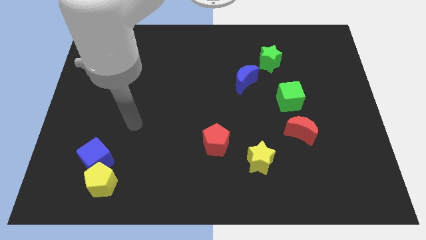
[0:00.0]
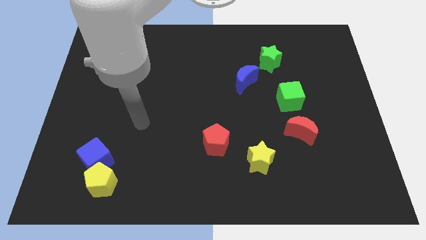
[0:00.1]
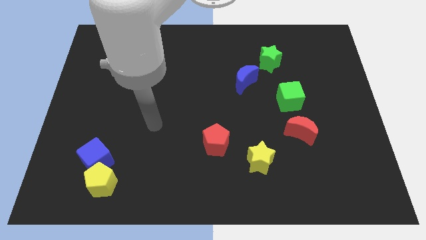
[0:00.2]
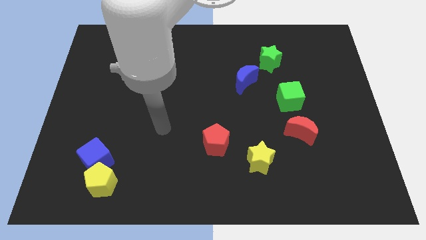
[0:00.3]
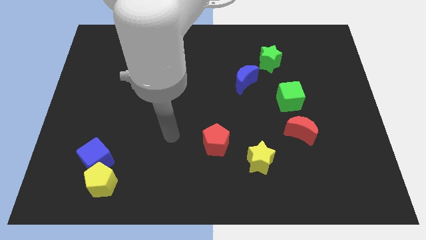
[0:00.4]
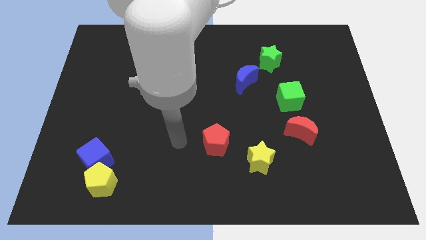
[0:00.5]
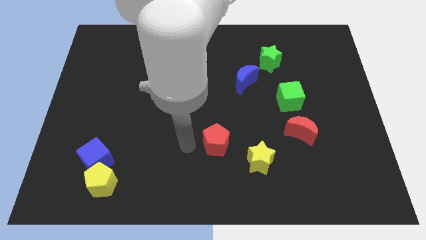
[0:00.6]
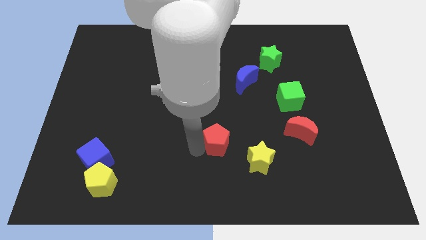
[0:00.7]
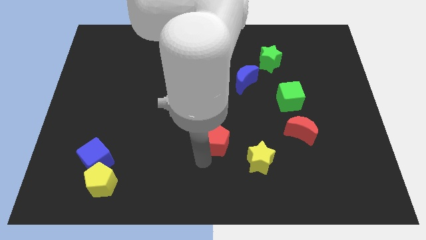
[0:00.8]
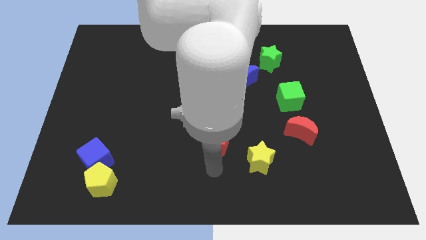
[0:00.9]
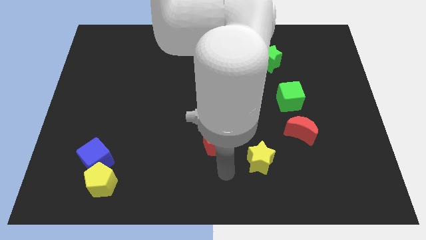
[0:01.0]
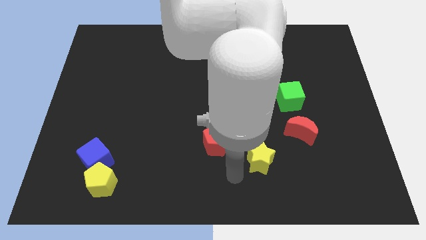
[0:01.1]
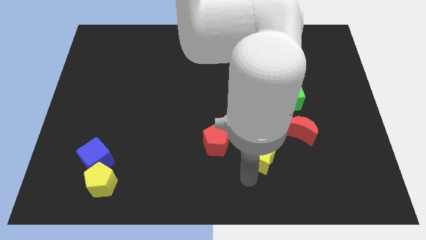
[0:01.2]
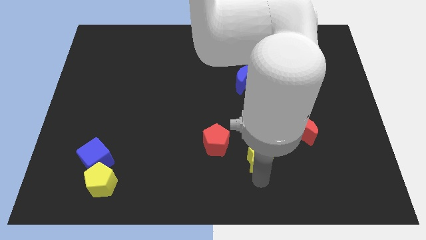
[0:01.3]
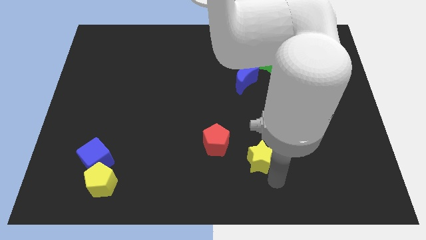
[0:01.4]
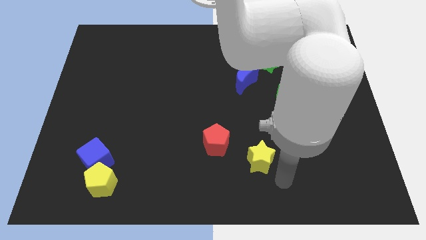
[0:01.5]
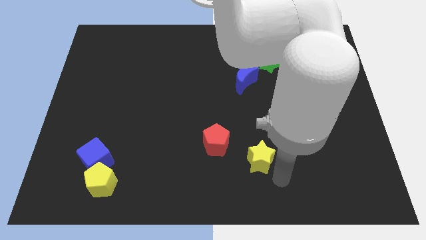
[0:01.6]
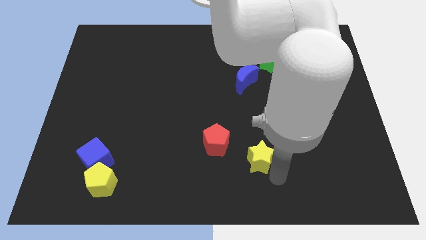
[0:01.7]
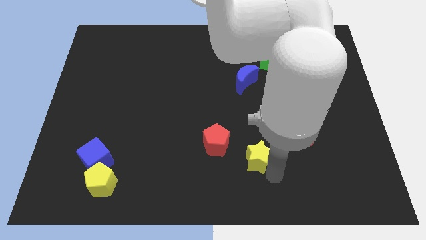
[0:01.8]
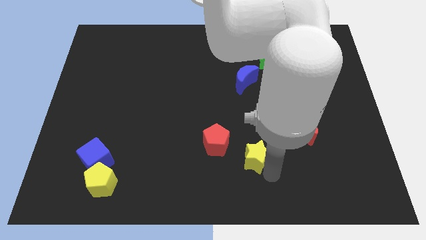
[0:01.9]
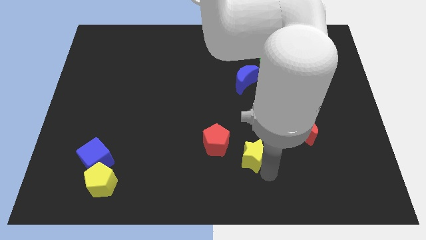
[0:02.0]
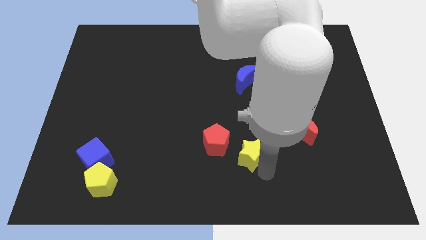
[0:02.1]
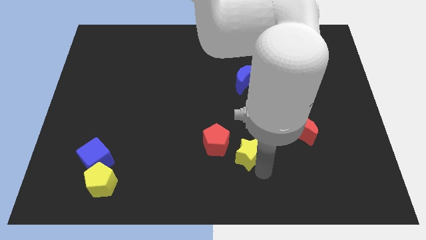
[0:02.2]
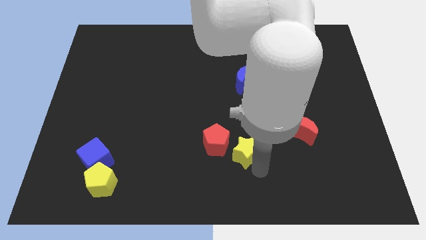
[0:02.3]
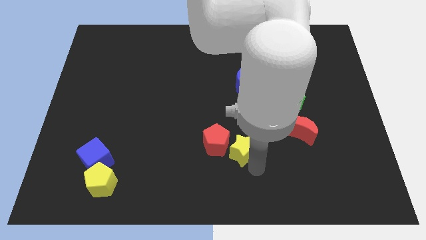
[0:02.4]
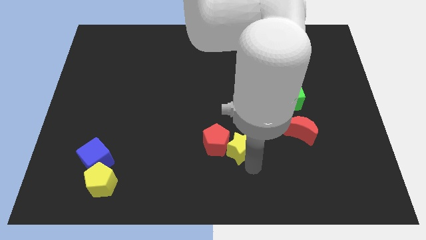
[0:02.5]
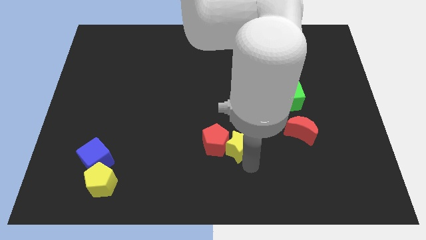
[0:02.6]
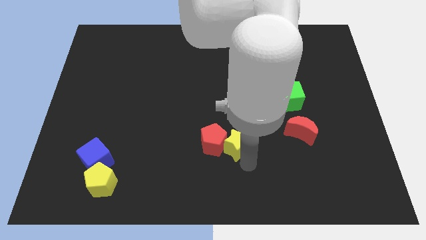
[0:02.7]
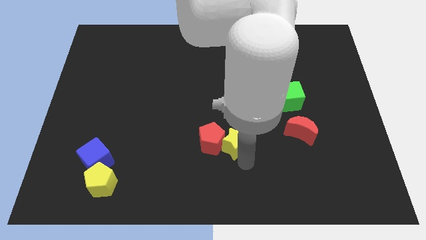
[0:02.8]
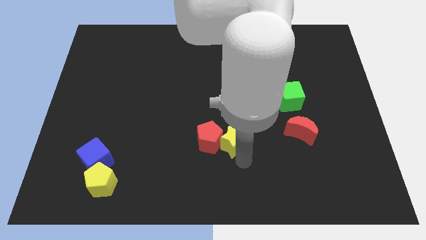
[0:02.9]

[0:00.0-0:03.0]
slightly slide the yellow star up and to the left

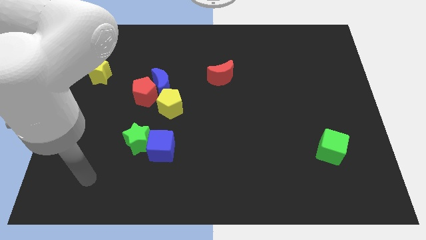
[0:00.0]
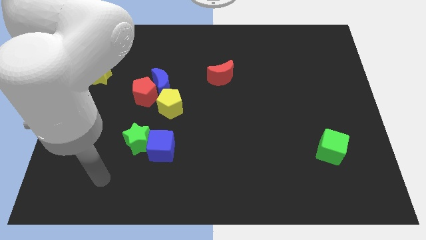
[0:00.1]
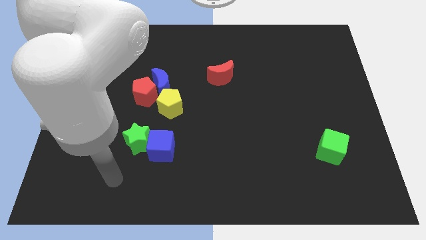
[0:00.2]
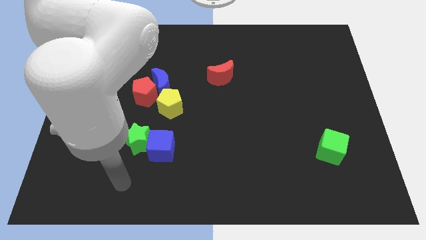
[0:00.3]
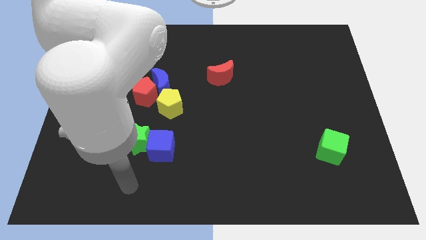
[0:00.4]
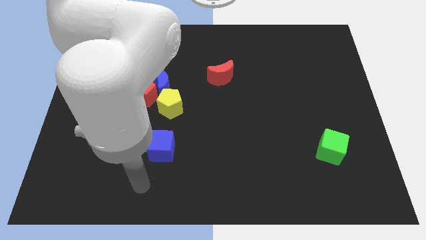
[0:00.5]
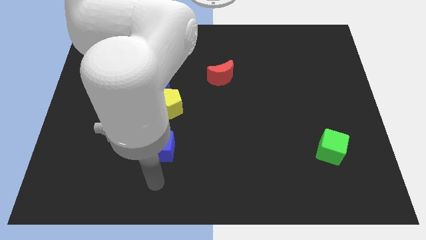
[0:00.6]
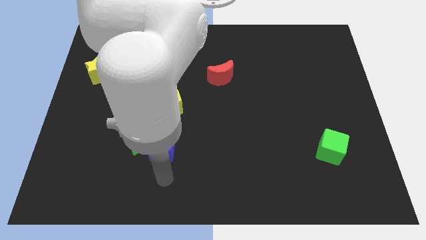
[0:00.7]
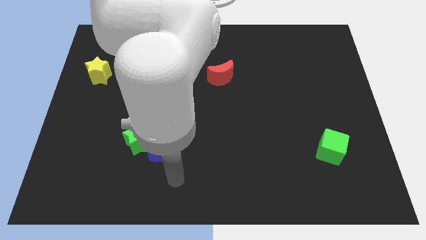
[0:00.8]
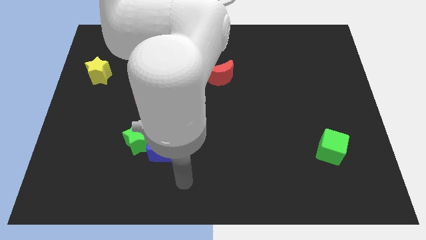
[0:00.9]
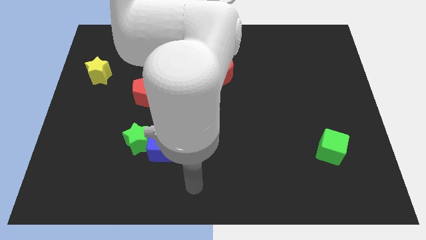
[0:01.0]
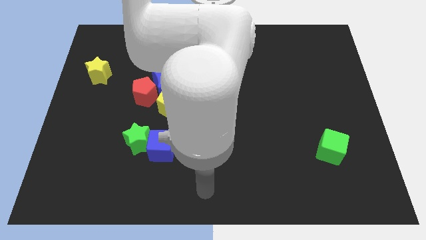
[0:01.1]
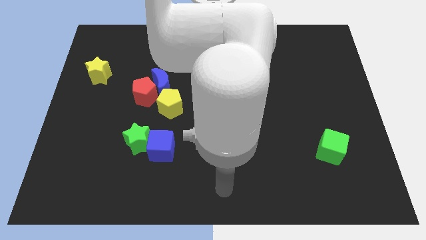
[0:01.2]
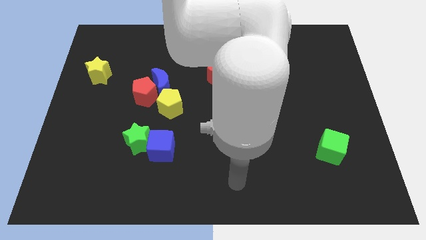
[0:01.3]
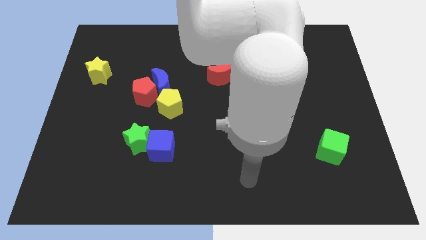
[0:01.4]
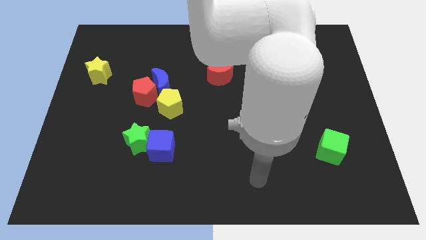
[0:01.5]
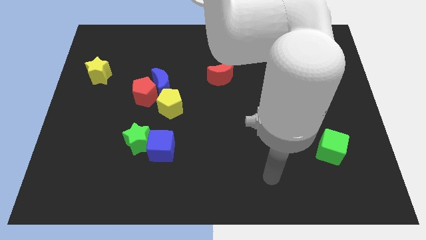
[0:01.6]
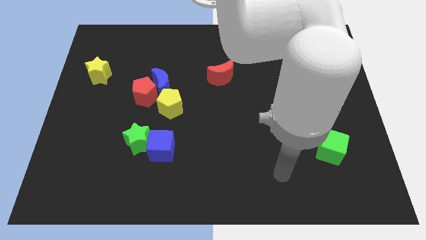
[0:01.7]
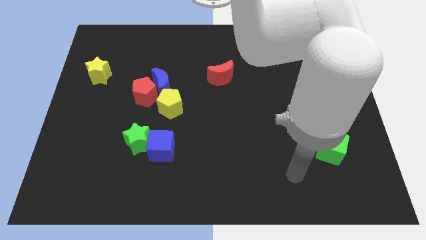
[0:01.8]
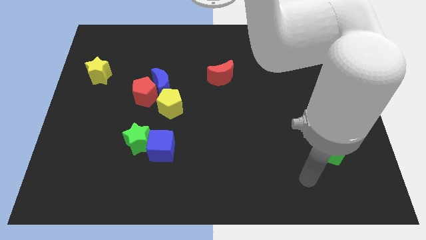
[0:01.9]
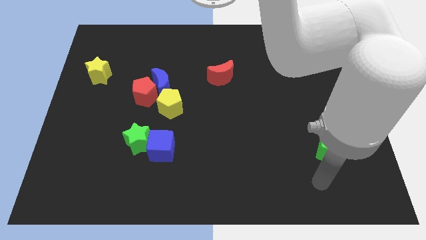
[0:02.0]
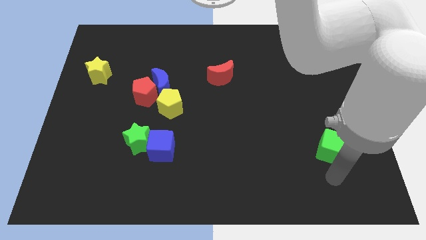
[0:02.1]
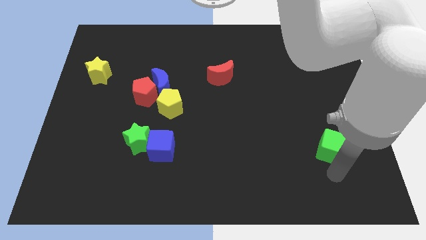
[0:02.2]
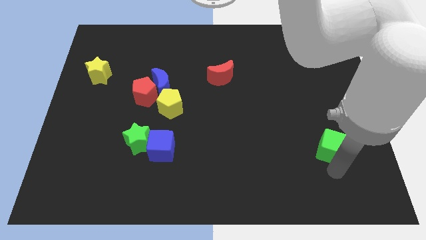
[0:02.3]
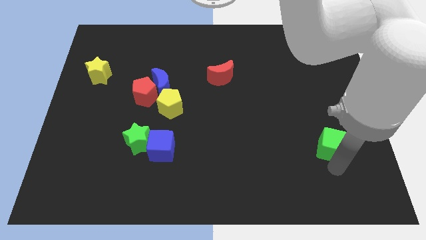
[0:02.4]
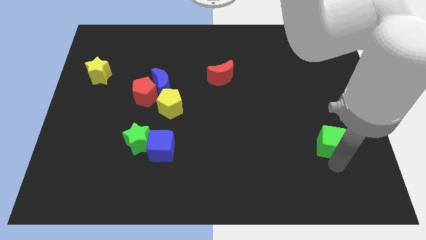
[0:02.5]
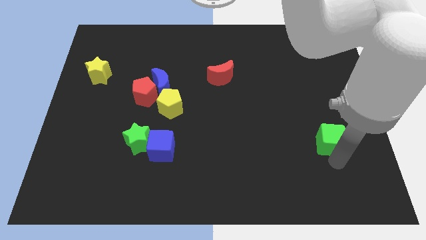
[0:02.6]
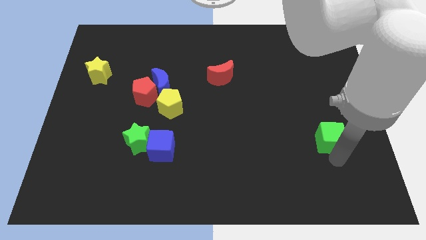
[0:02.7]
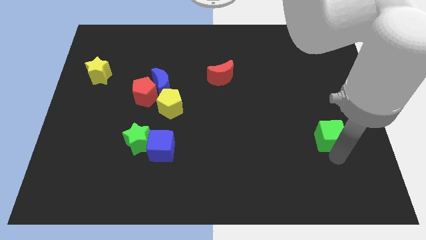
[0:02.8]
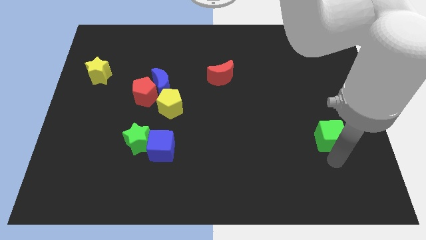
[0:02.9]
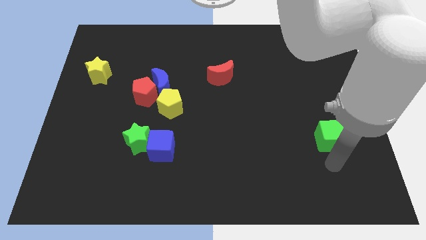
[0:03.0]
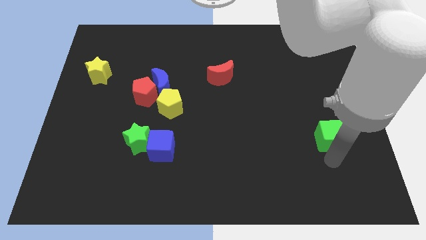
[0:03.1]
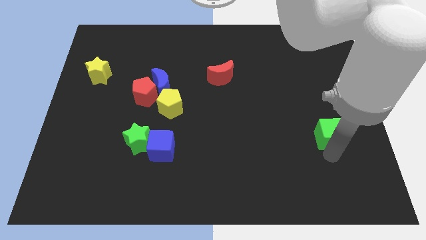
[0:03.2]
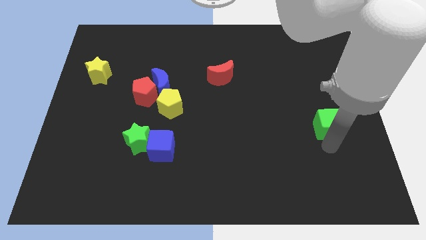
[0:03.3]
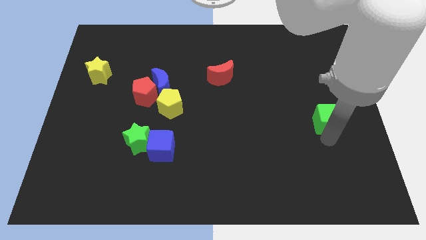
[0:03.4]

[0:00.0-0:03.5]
push the green cube a little up

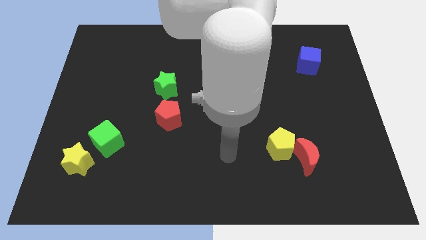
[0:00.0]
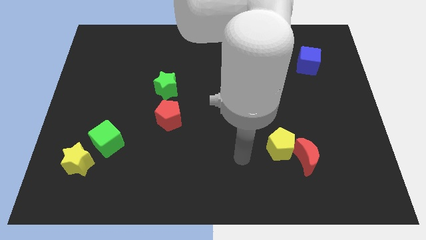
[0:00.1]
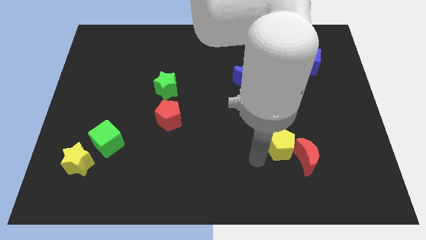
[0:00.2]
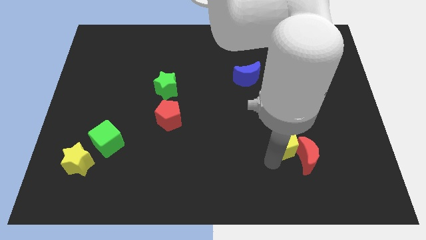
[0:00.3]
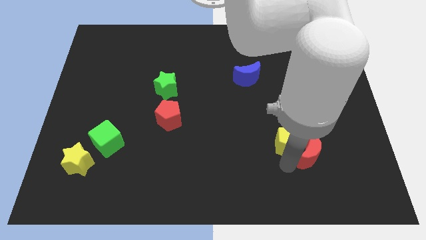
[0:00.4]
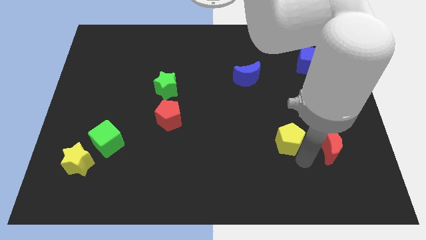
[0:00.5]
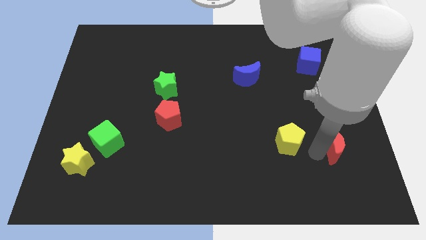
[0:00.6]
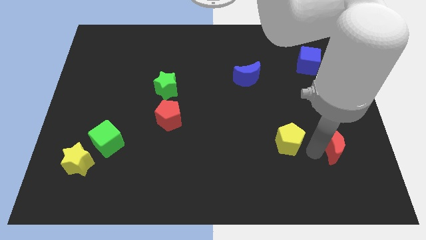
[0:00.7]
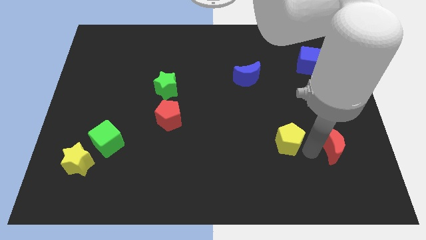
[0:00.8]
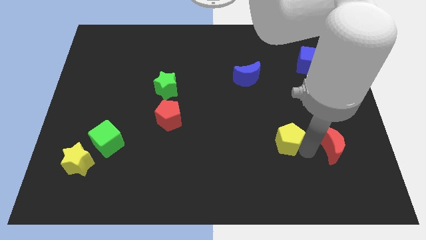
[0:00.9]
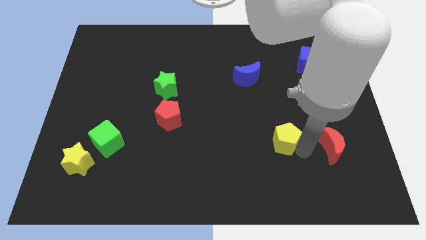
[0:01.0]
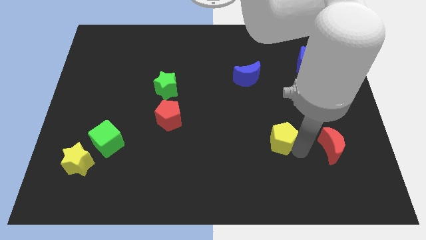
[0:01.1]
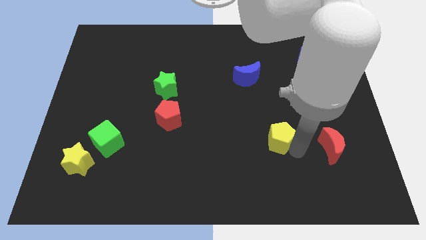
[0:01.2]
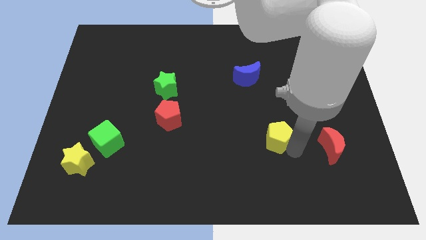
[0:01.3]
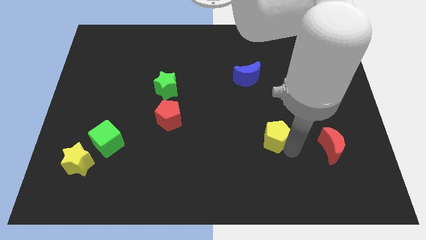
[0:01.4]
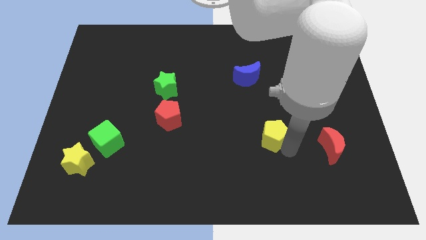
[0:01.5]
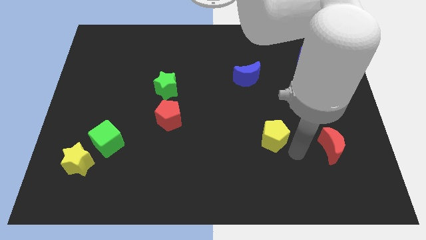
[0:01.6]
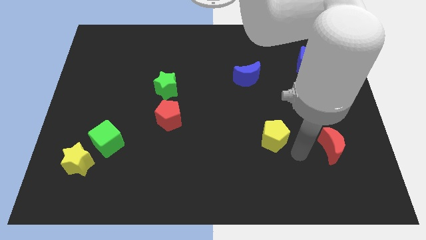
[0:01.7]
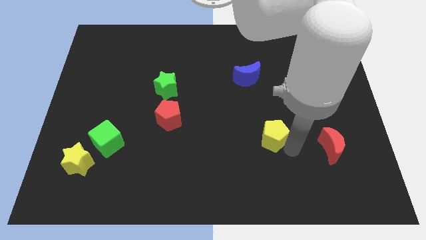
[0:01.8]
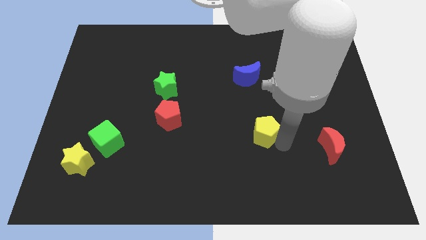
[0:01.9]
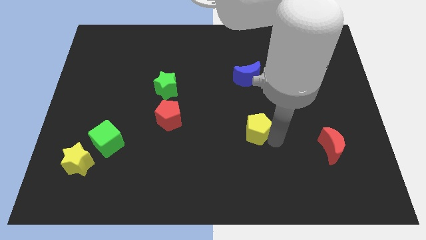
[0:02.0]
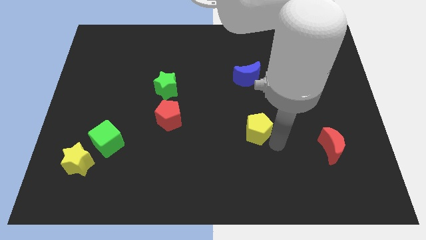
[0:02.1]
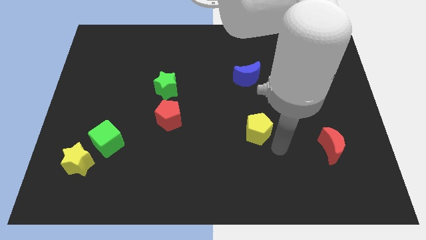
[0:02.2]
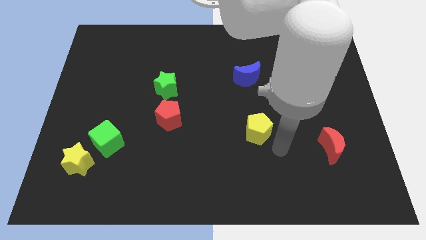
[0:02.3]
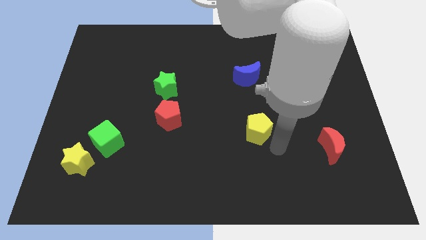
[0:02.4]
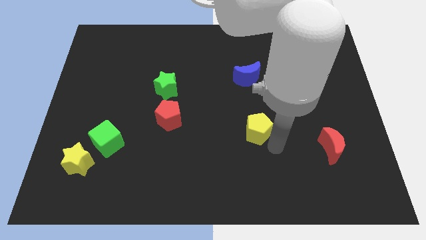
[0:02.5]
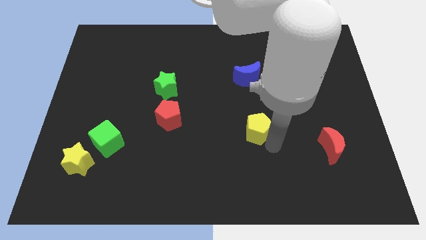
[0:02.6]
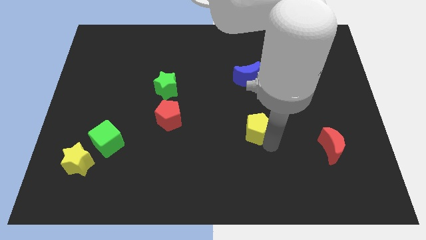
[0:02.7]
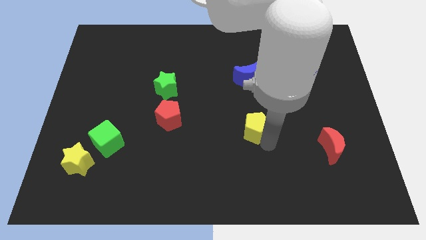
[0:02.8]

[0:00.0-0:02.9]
slightly push the yellow pentagon up and to the left
